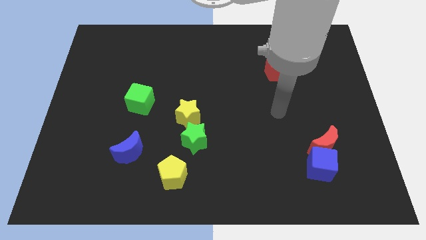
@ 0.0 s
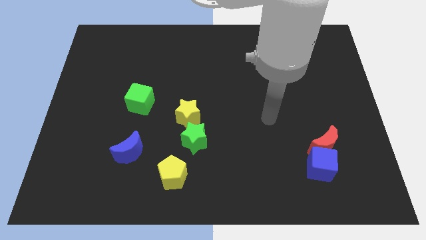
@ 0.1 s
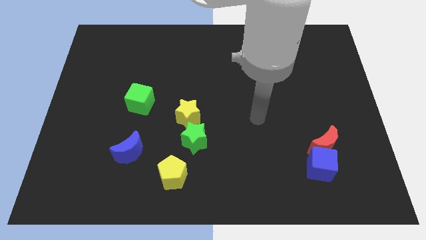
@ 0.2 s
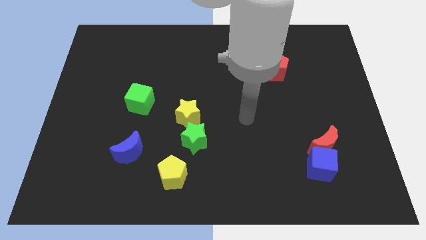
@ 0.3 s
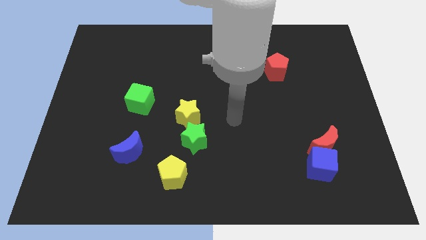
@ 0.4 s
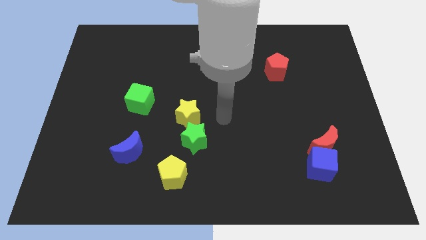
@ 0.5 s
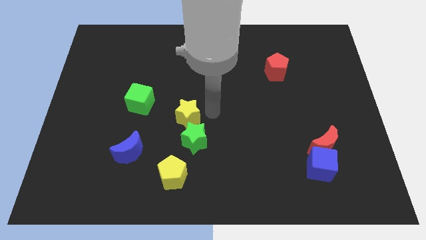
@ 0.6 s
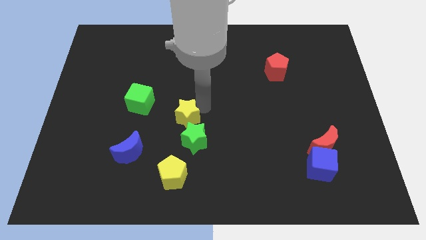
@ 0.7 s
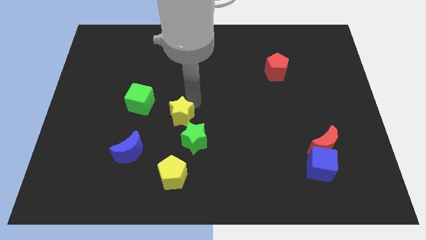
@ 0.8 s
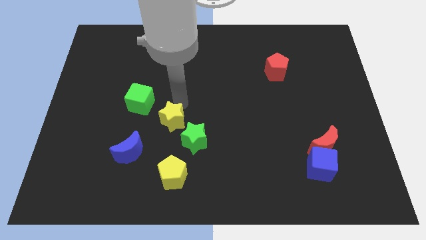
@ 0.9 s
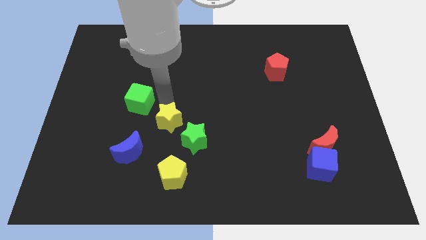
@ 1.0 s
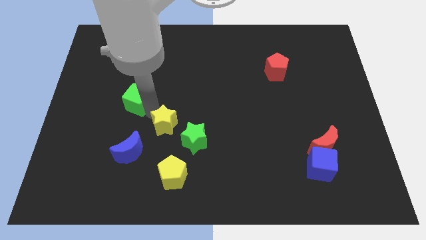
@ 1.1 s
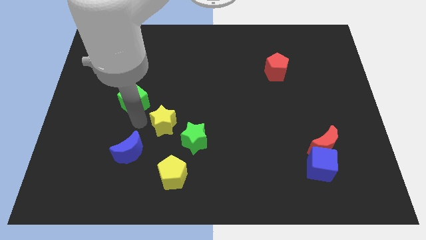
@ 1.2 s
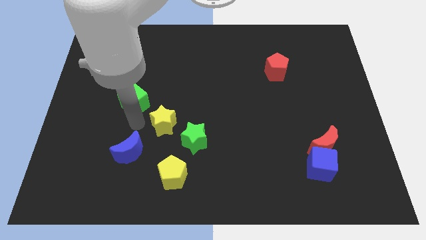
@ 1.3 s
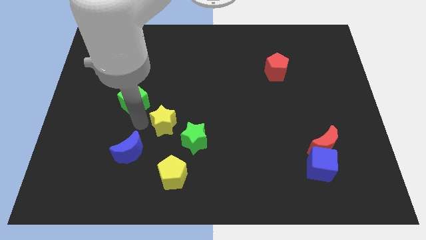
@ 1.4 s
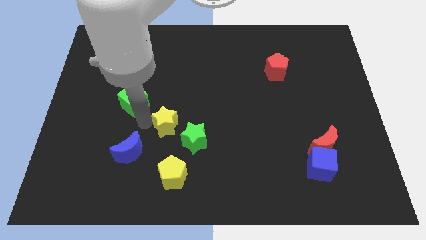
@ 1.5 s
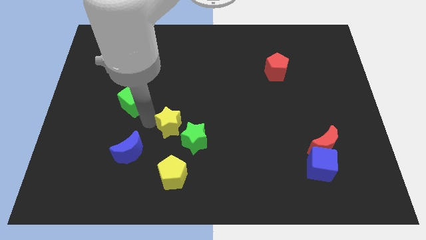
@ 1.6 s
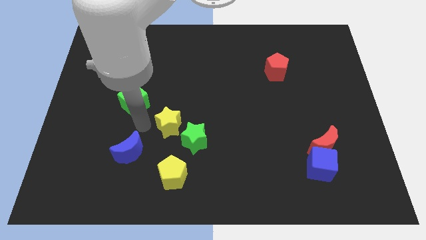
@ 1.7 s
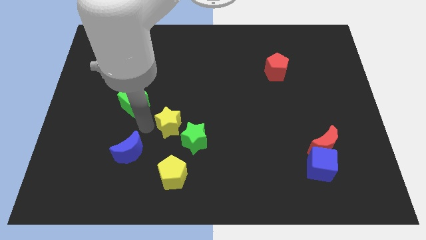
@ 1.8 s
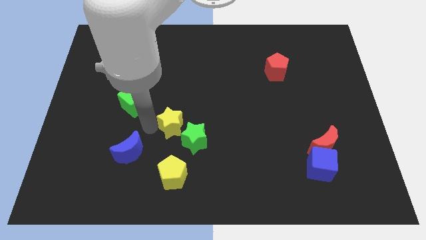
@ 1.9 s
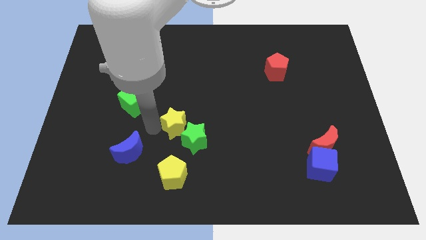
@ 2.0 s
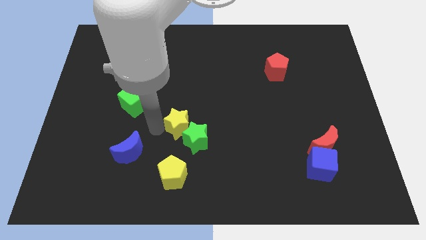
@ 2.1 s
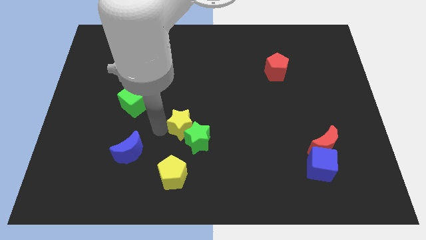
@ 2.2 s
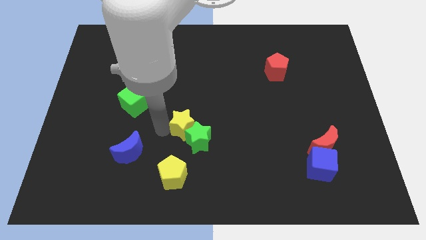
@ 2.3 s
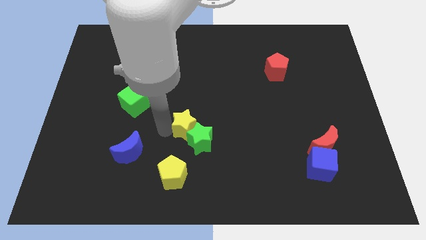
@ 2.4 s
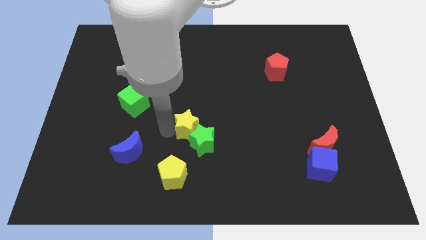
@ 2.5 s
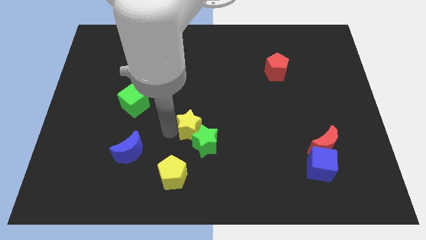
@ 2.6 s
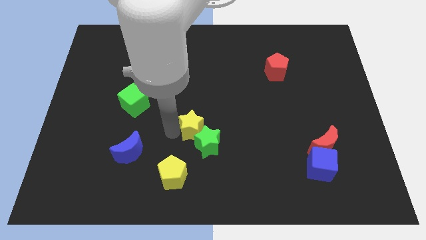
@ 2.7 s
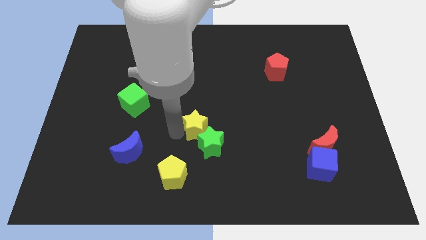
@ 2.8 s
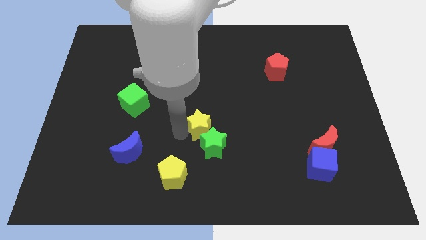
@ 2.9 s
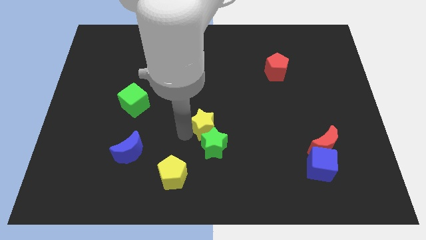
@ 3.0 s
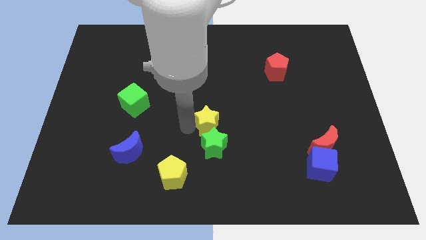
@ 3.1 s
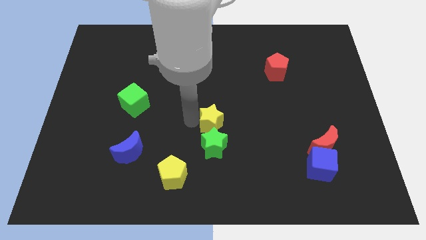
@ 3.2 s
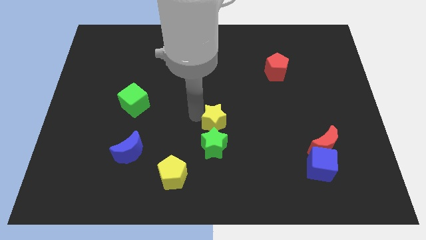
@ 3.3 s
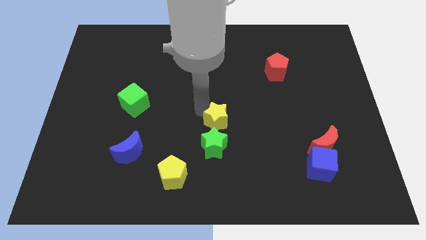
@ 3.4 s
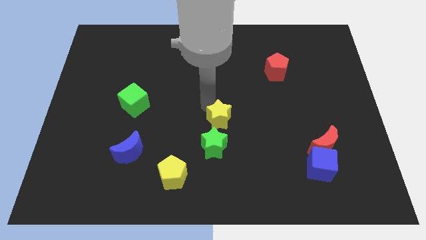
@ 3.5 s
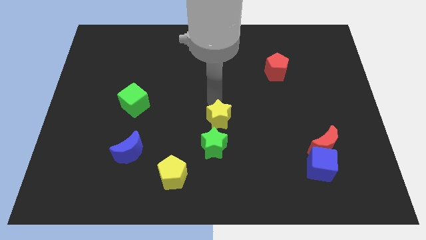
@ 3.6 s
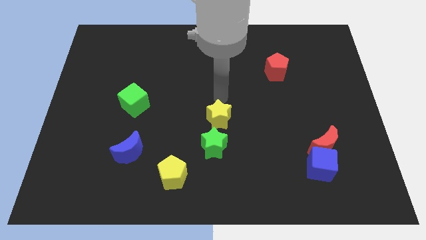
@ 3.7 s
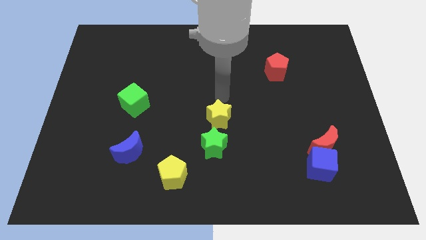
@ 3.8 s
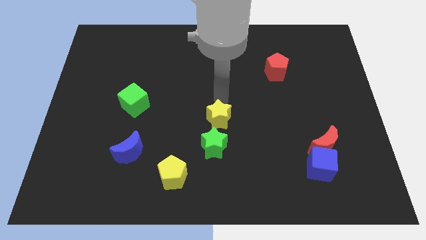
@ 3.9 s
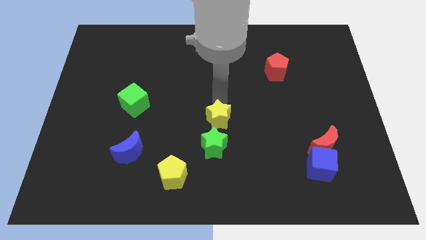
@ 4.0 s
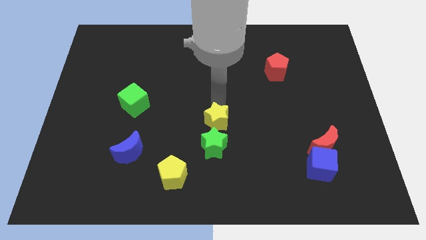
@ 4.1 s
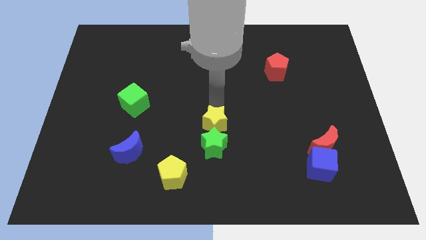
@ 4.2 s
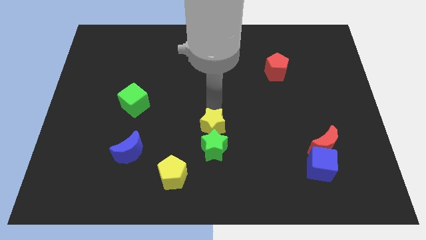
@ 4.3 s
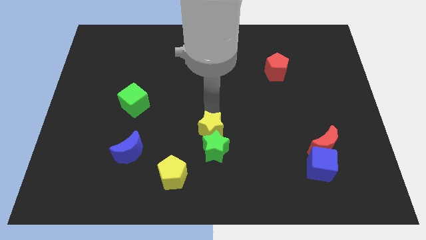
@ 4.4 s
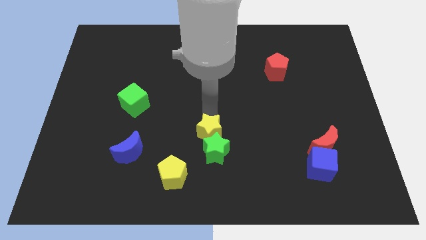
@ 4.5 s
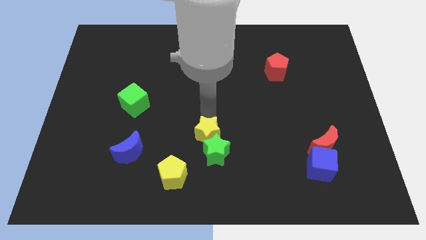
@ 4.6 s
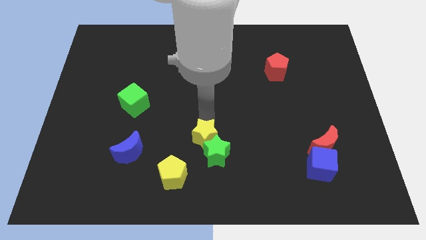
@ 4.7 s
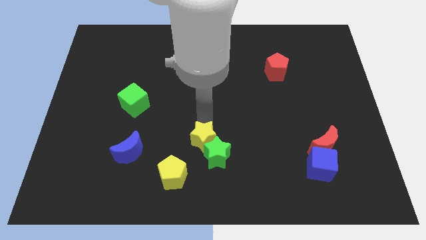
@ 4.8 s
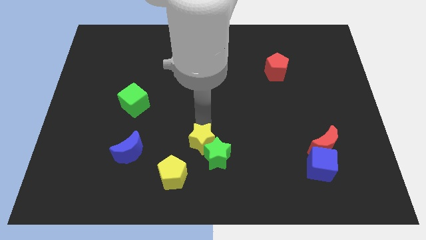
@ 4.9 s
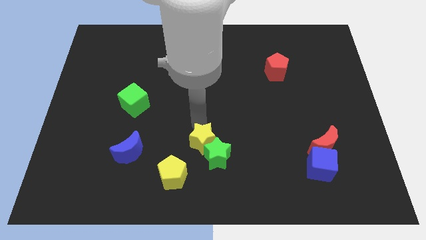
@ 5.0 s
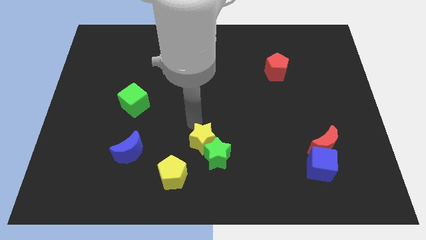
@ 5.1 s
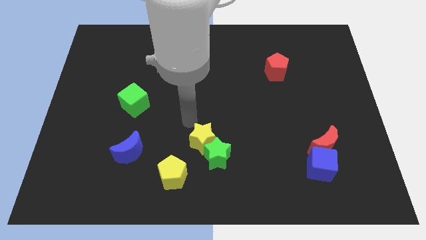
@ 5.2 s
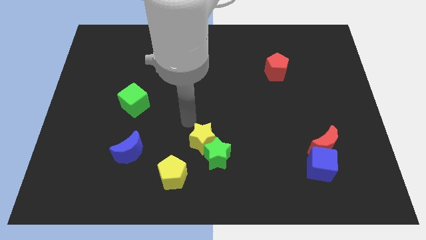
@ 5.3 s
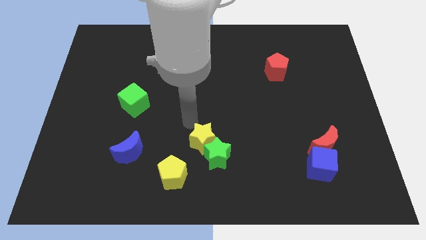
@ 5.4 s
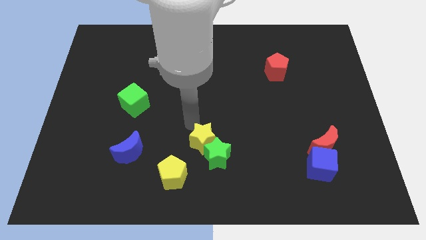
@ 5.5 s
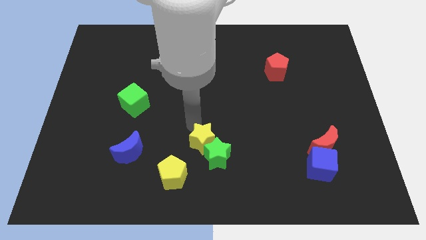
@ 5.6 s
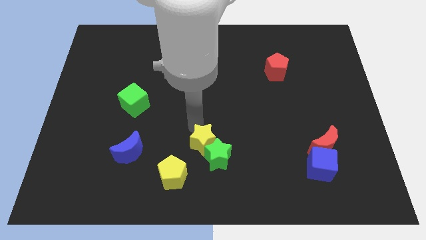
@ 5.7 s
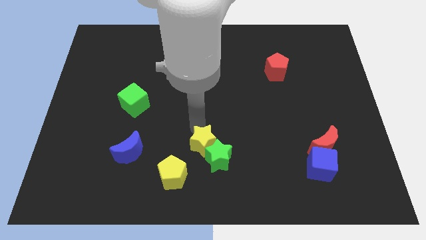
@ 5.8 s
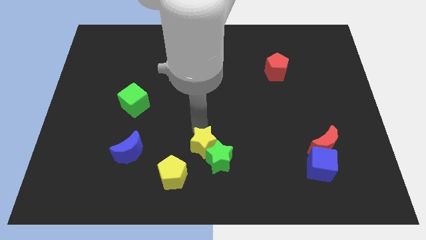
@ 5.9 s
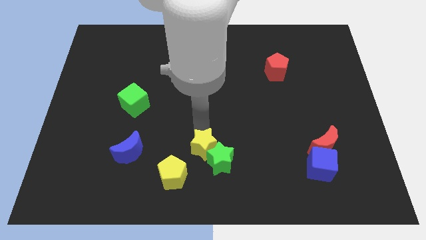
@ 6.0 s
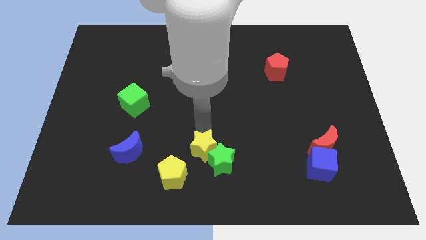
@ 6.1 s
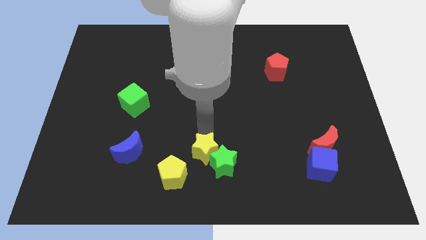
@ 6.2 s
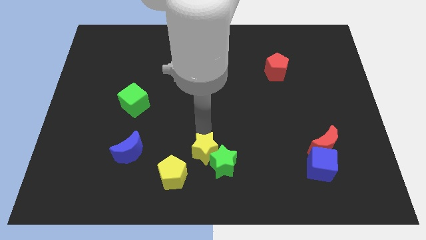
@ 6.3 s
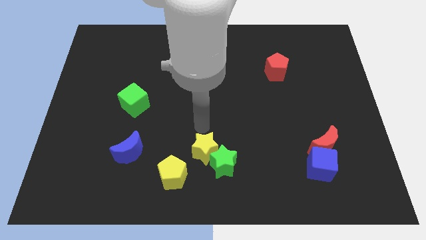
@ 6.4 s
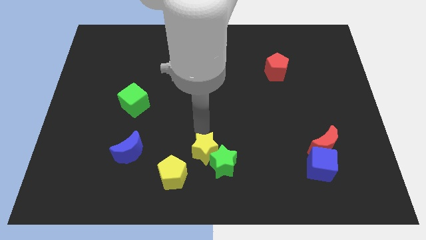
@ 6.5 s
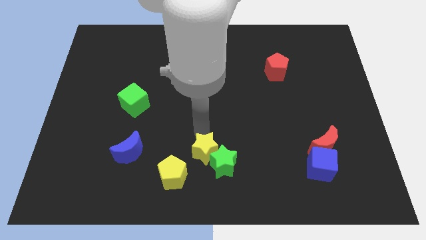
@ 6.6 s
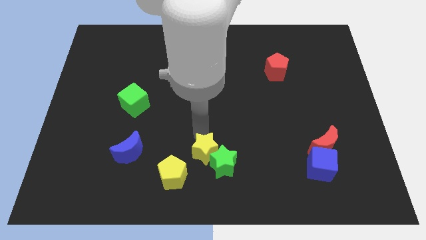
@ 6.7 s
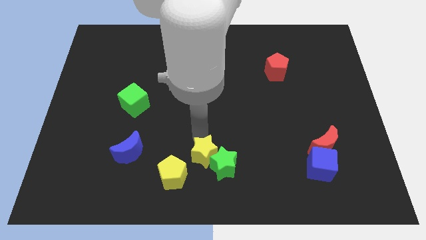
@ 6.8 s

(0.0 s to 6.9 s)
push the yellow star to the bottom side

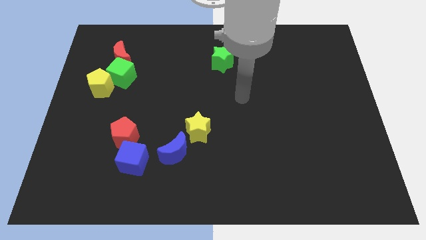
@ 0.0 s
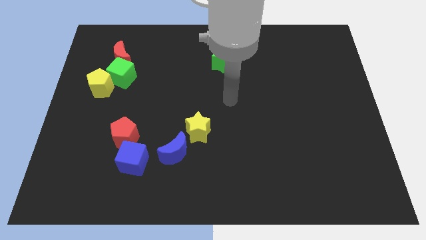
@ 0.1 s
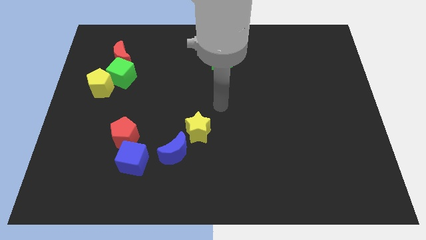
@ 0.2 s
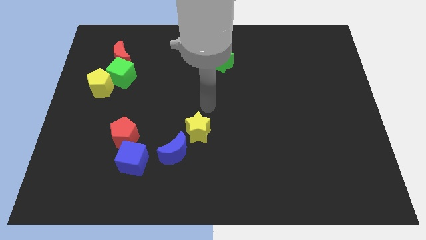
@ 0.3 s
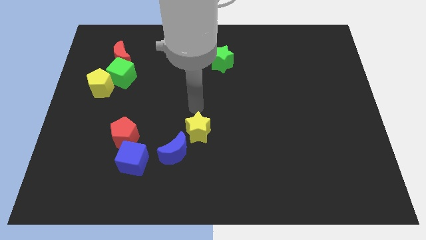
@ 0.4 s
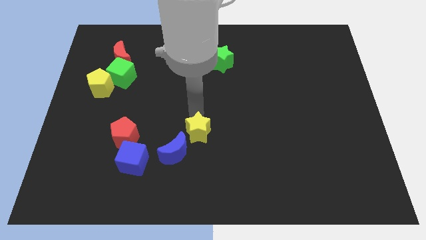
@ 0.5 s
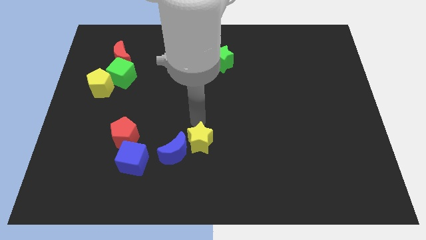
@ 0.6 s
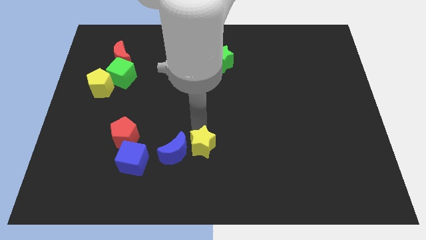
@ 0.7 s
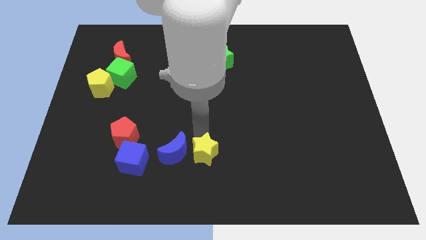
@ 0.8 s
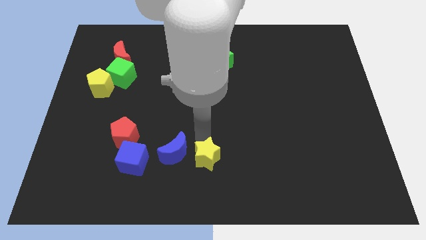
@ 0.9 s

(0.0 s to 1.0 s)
move the yellow star to the bottom
